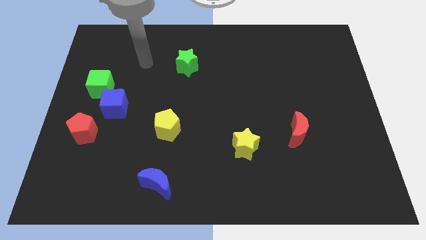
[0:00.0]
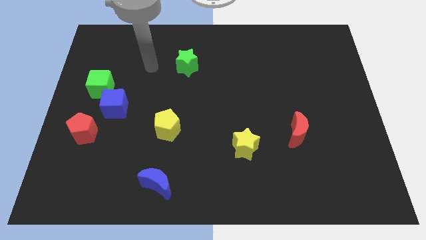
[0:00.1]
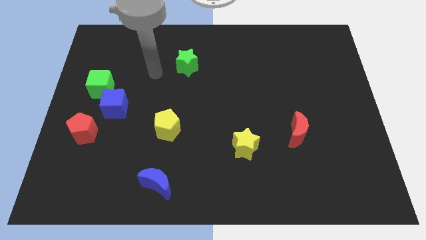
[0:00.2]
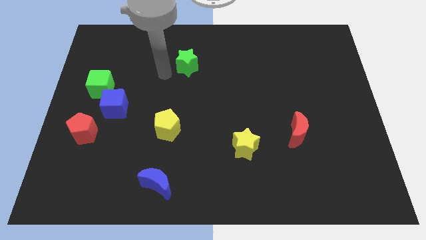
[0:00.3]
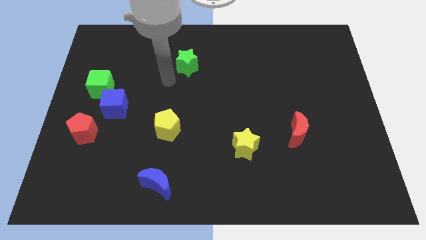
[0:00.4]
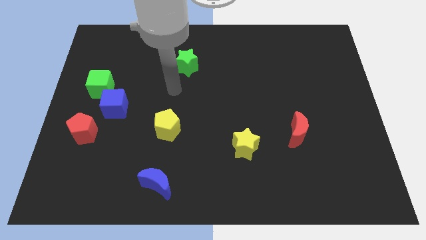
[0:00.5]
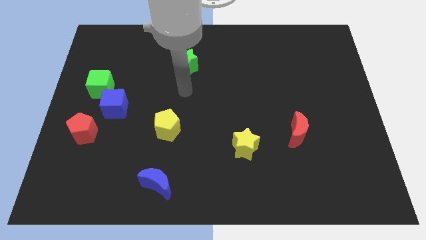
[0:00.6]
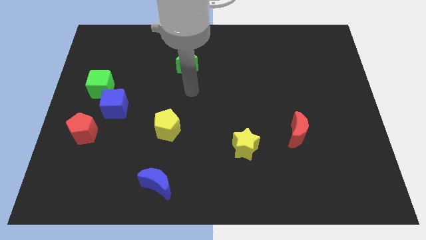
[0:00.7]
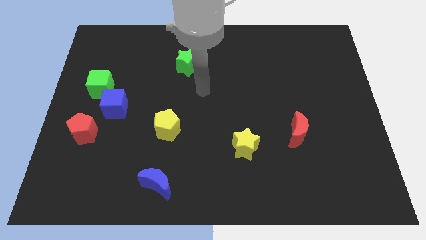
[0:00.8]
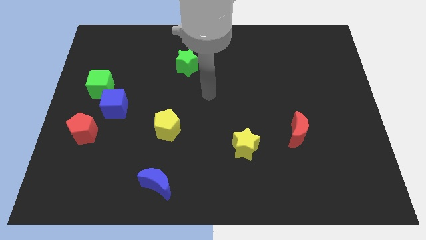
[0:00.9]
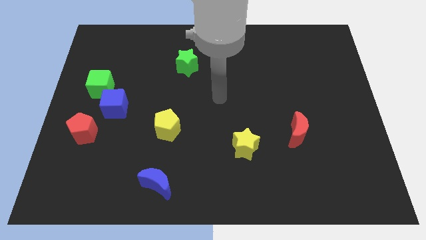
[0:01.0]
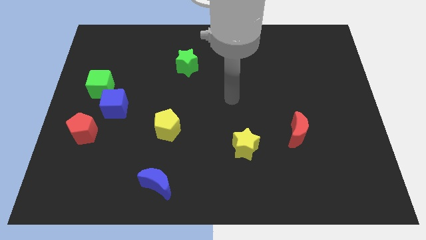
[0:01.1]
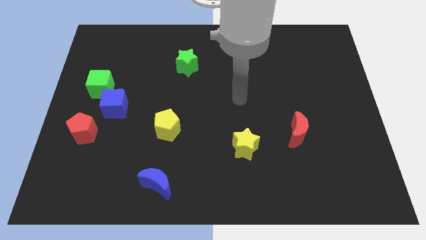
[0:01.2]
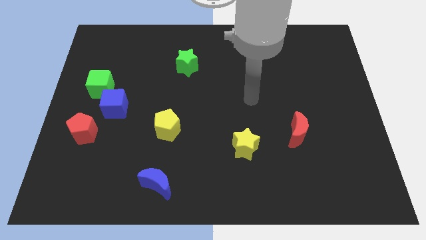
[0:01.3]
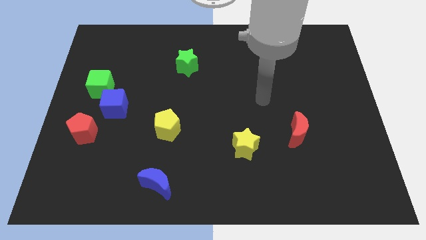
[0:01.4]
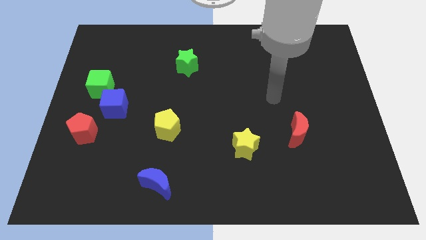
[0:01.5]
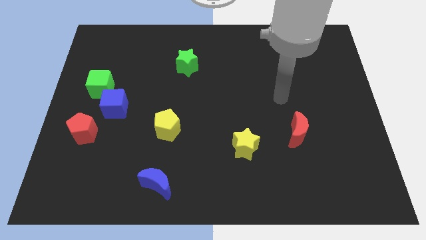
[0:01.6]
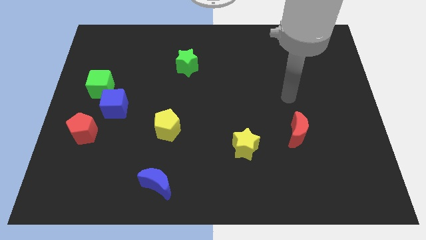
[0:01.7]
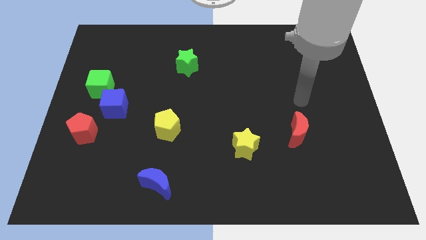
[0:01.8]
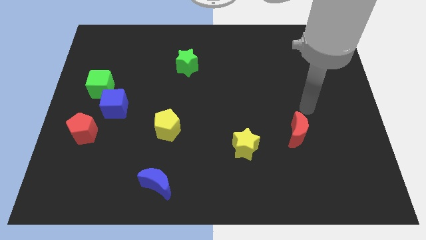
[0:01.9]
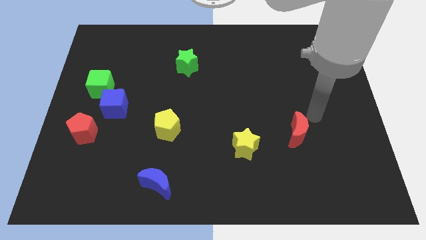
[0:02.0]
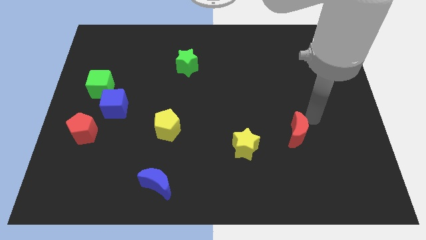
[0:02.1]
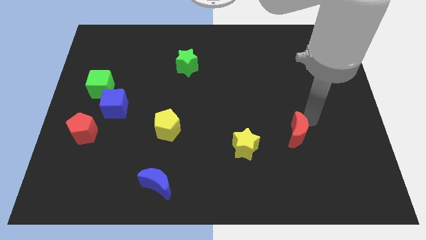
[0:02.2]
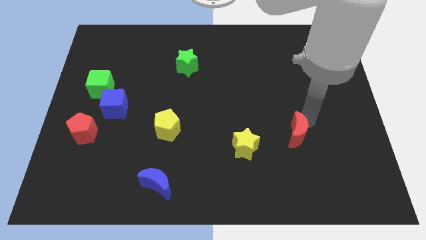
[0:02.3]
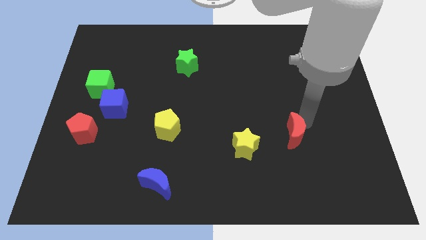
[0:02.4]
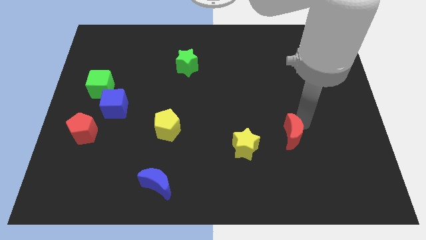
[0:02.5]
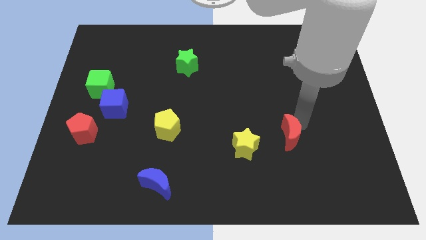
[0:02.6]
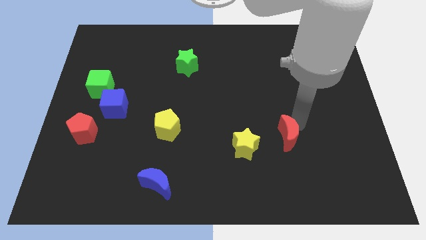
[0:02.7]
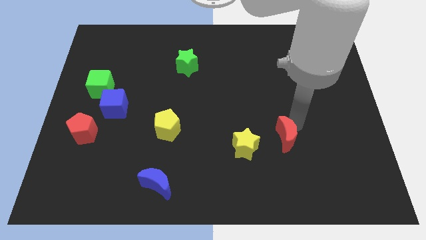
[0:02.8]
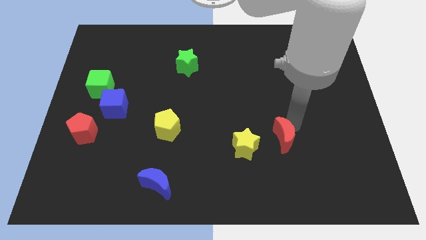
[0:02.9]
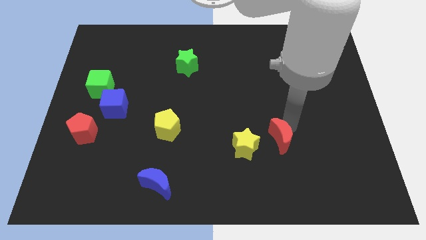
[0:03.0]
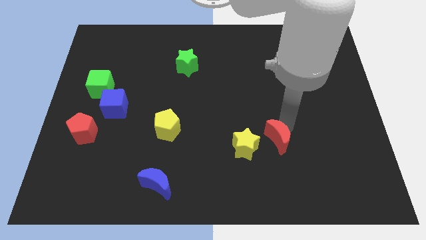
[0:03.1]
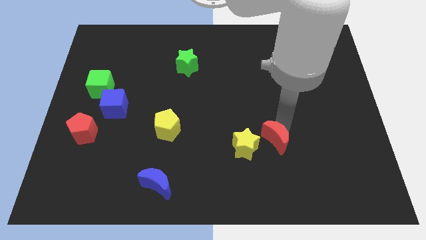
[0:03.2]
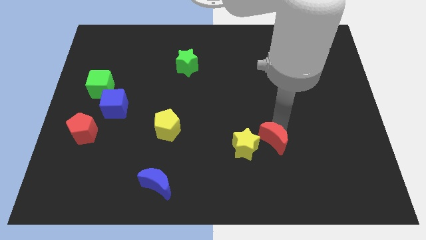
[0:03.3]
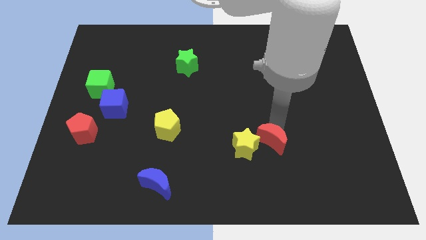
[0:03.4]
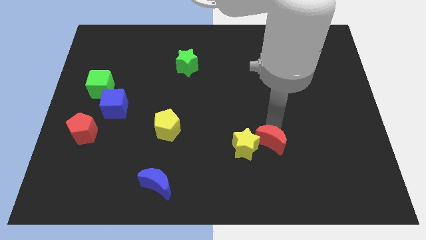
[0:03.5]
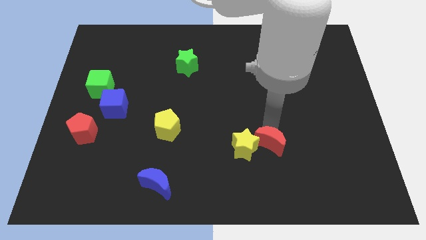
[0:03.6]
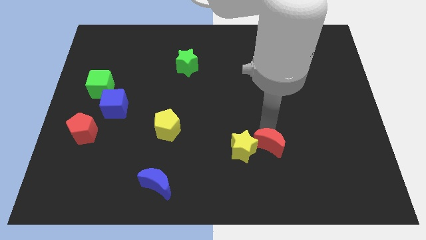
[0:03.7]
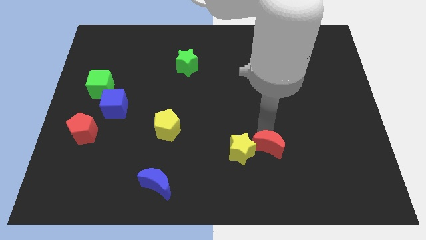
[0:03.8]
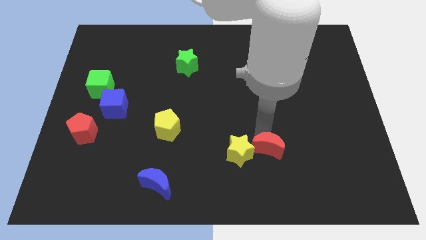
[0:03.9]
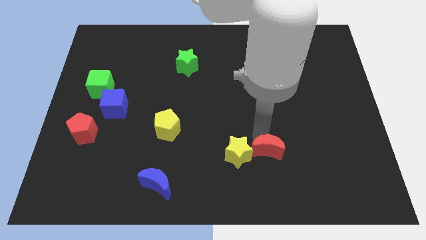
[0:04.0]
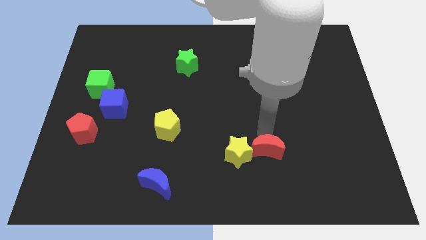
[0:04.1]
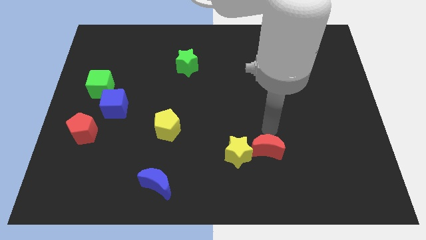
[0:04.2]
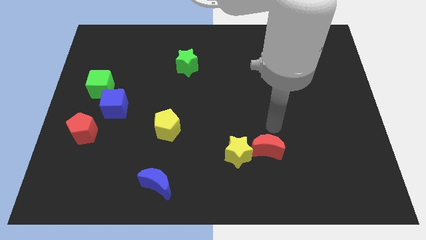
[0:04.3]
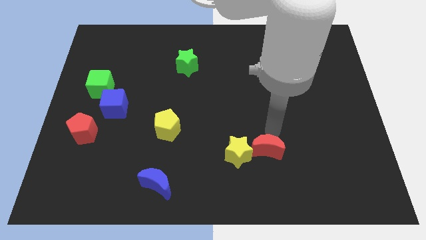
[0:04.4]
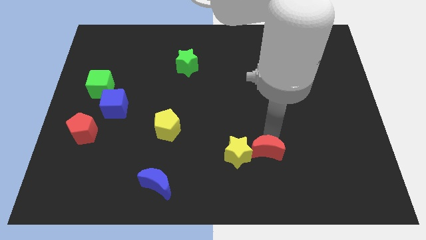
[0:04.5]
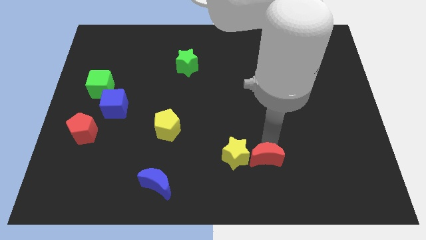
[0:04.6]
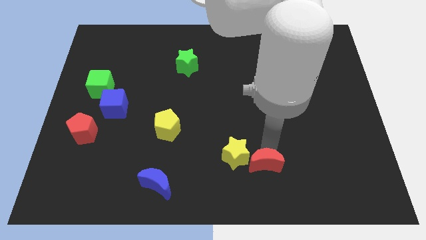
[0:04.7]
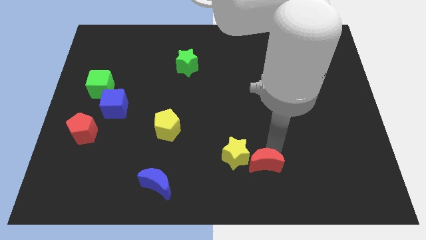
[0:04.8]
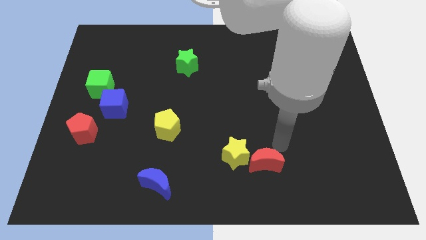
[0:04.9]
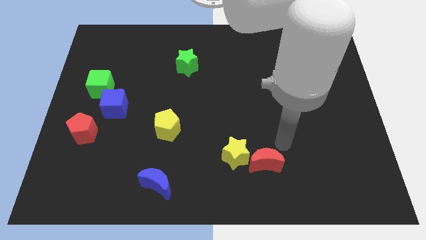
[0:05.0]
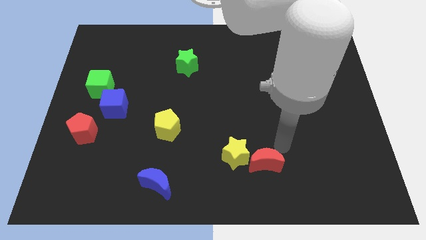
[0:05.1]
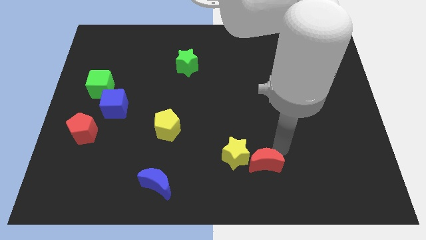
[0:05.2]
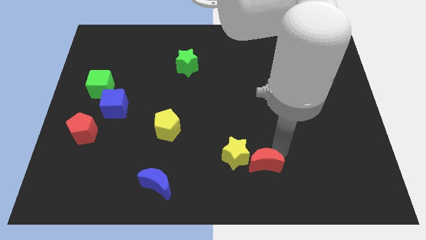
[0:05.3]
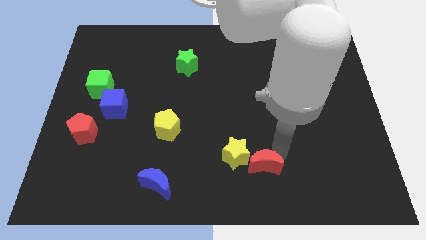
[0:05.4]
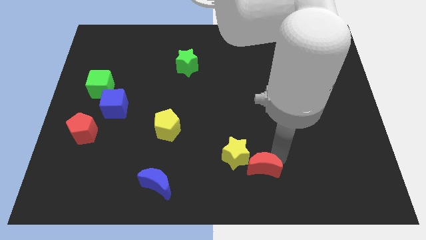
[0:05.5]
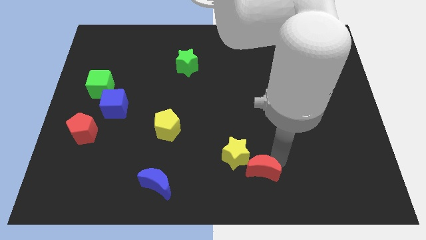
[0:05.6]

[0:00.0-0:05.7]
put the red moon to the bottom

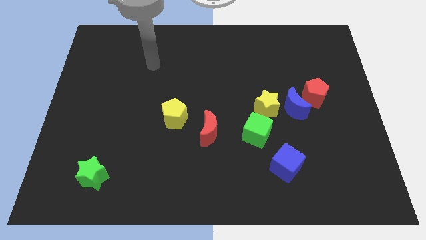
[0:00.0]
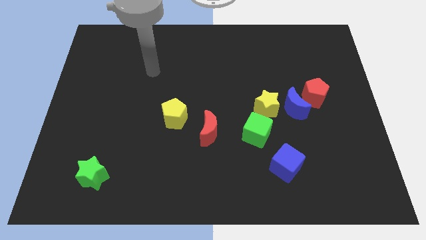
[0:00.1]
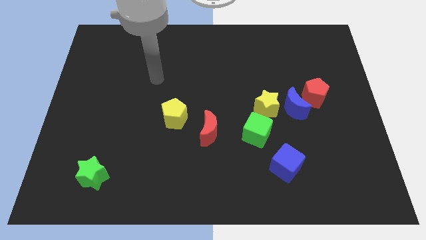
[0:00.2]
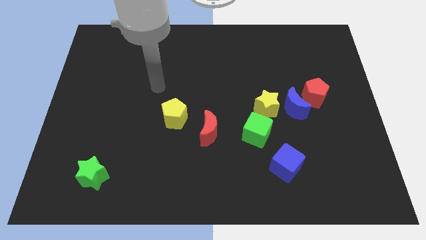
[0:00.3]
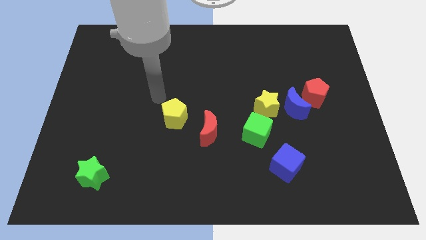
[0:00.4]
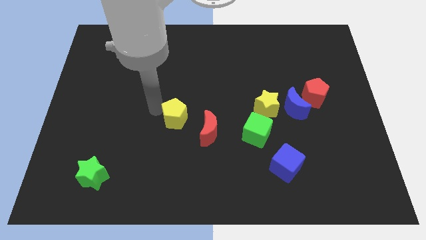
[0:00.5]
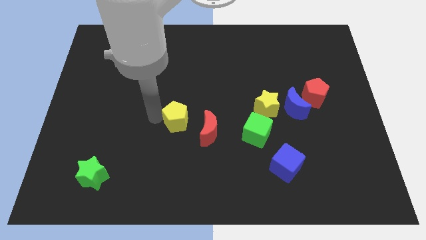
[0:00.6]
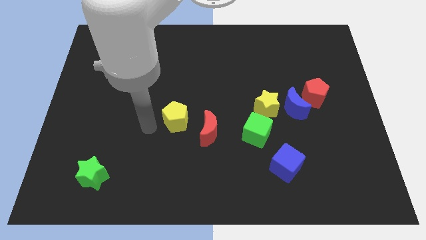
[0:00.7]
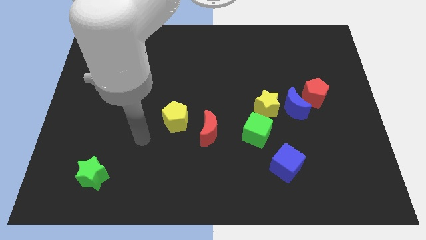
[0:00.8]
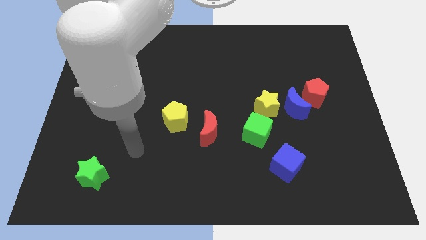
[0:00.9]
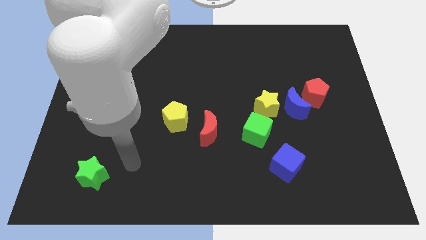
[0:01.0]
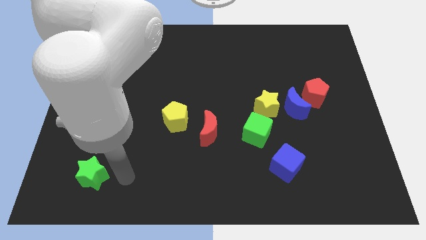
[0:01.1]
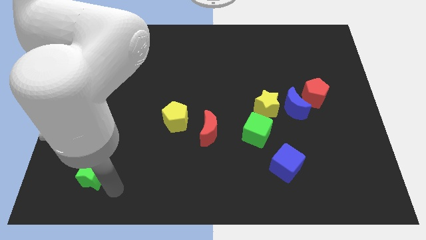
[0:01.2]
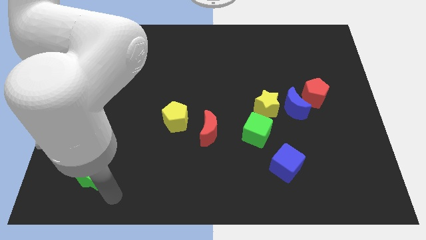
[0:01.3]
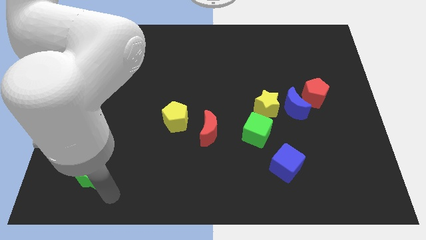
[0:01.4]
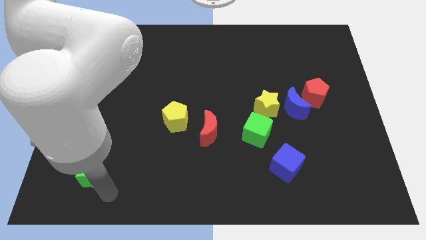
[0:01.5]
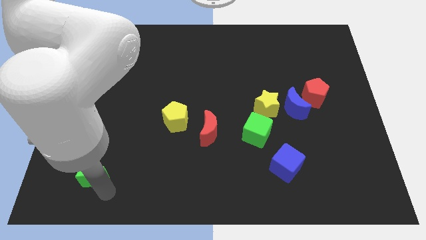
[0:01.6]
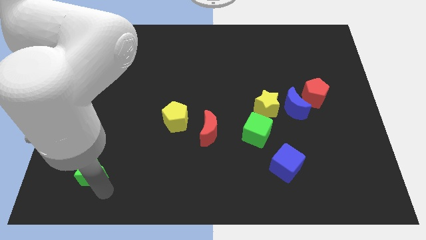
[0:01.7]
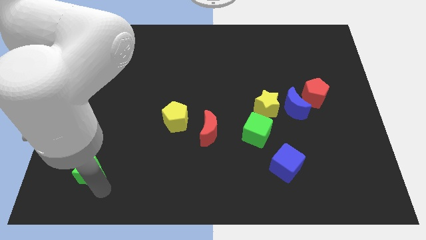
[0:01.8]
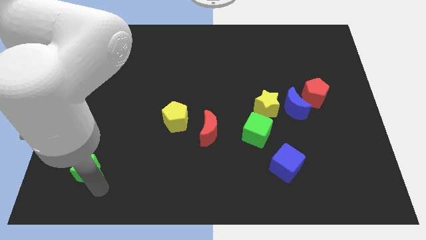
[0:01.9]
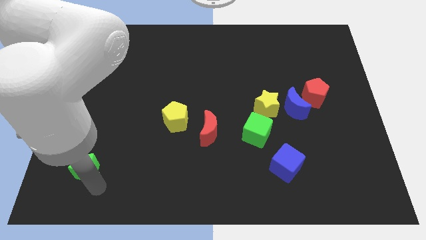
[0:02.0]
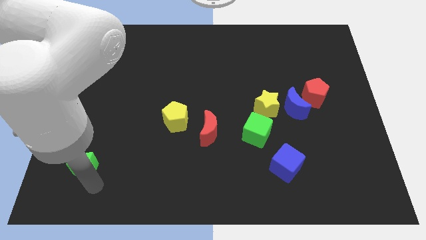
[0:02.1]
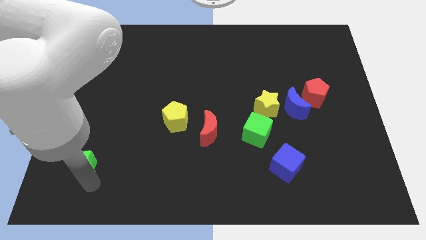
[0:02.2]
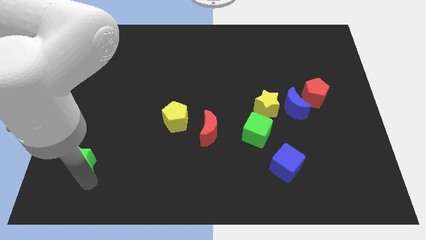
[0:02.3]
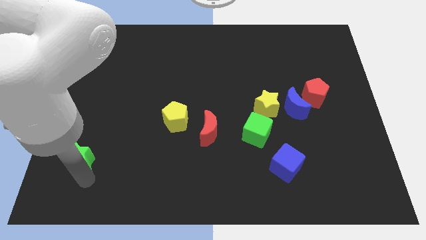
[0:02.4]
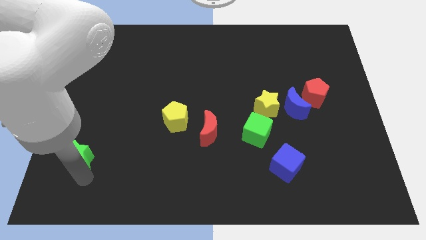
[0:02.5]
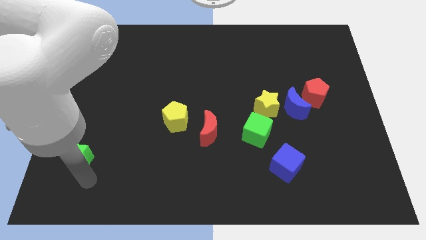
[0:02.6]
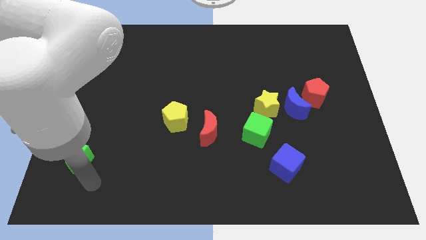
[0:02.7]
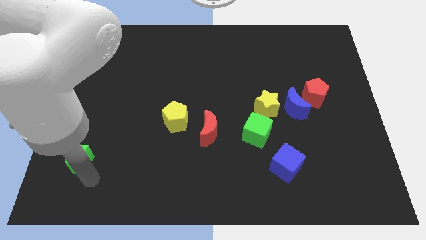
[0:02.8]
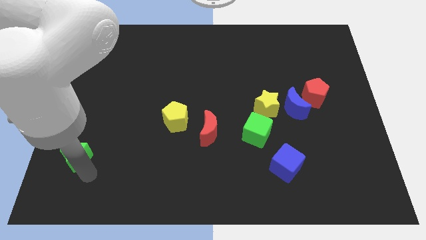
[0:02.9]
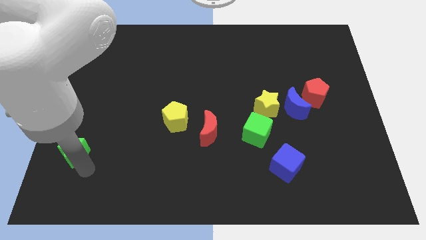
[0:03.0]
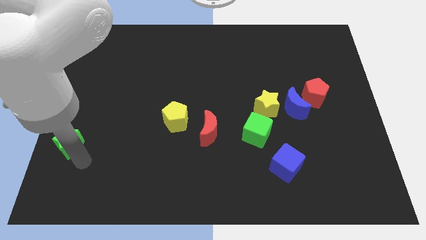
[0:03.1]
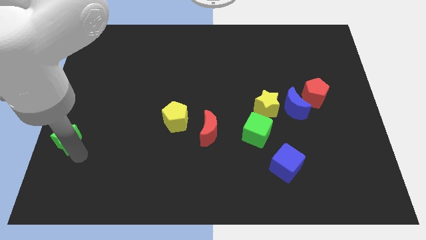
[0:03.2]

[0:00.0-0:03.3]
put the green star to the left side of the board
